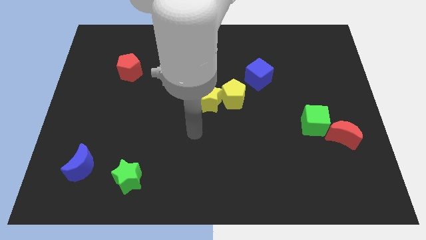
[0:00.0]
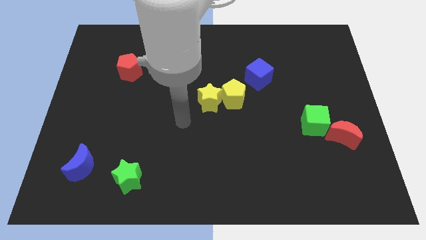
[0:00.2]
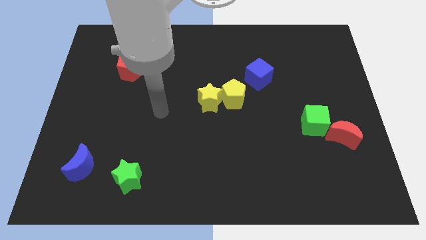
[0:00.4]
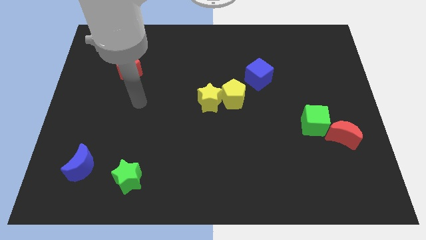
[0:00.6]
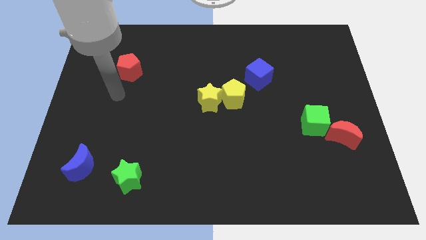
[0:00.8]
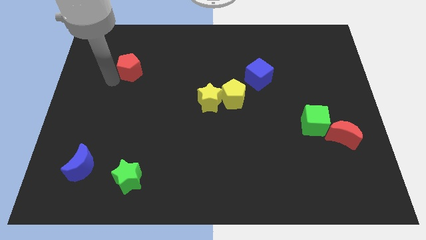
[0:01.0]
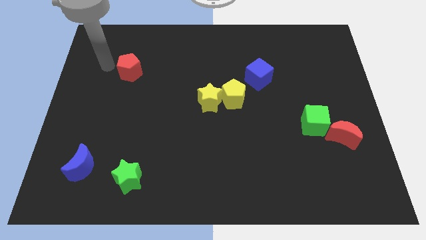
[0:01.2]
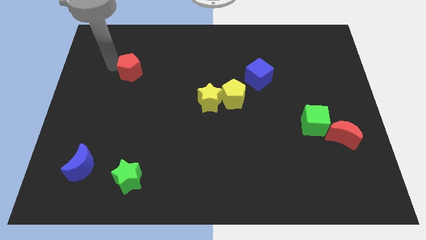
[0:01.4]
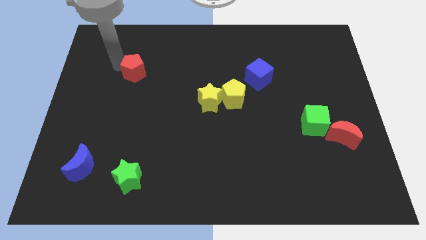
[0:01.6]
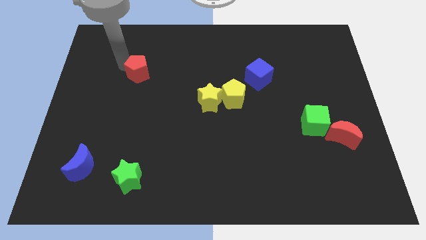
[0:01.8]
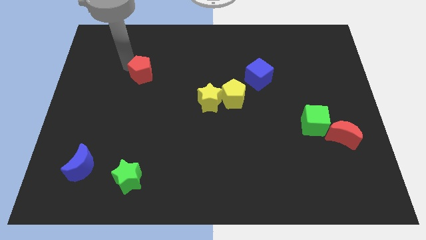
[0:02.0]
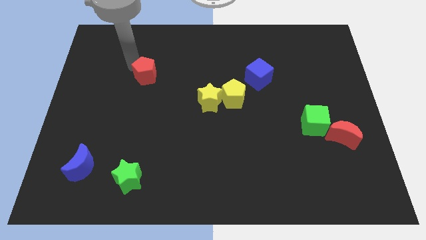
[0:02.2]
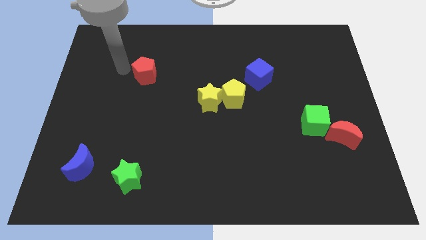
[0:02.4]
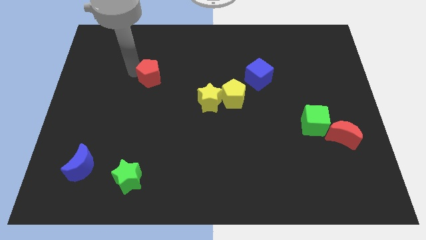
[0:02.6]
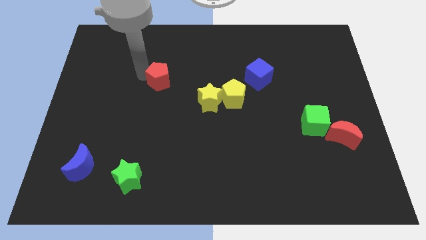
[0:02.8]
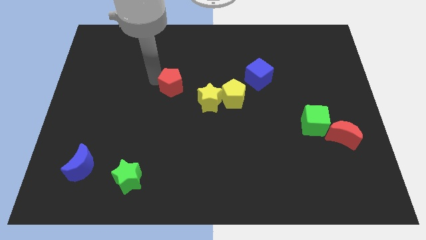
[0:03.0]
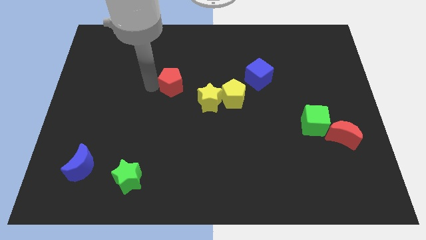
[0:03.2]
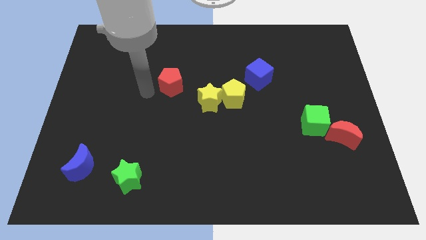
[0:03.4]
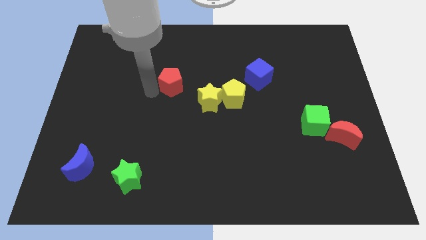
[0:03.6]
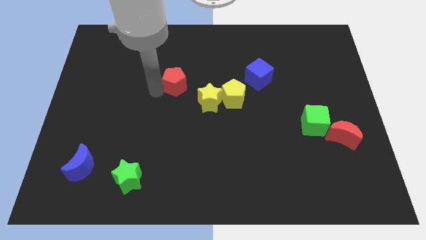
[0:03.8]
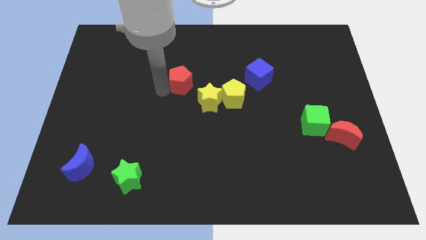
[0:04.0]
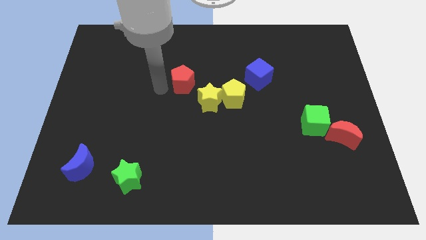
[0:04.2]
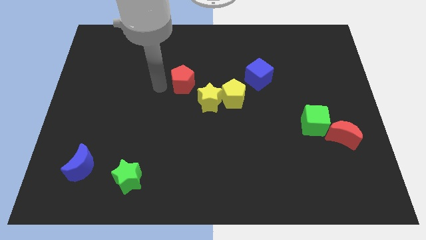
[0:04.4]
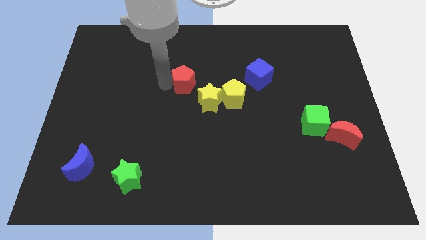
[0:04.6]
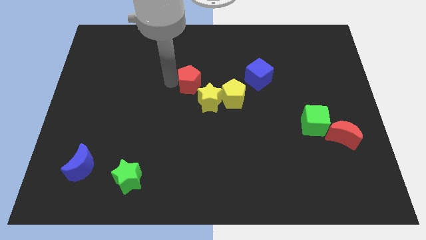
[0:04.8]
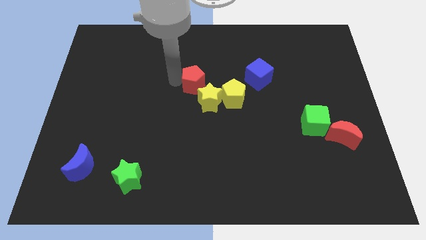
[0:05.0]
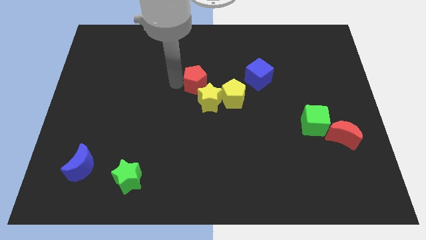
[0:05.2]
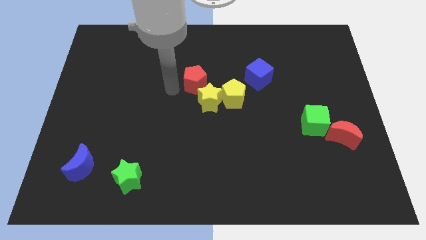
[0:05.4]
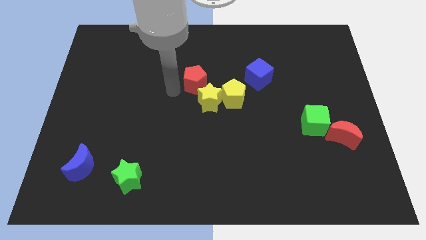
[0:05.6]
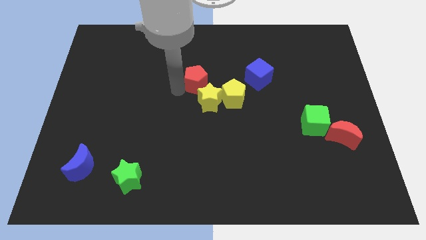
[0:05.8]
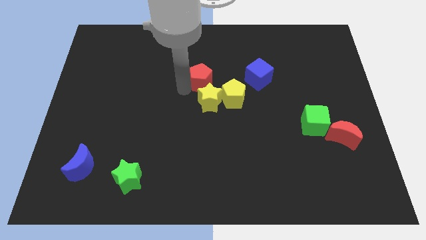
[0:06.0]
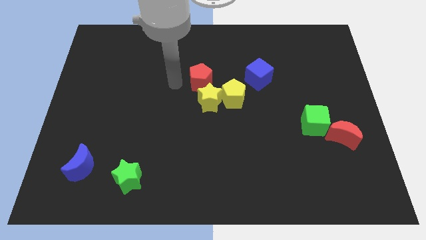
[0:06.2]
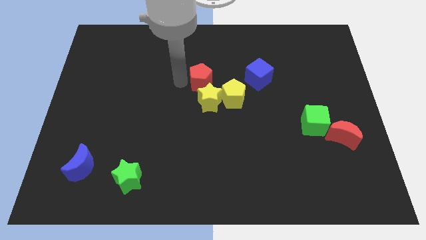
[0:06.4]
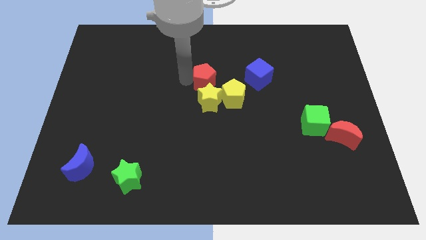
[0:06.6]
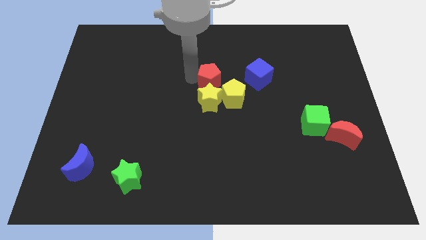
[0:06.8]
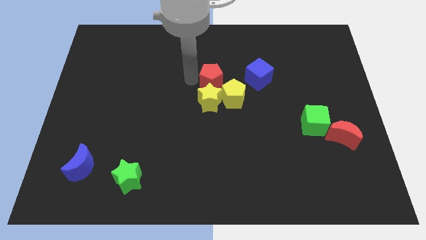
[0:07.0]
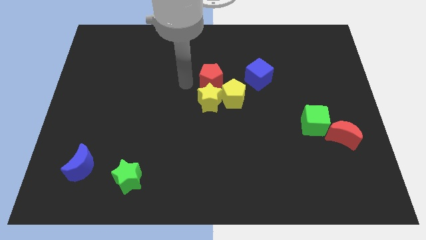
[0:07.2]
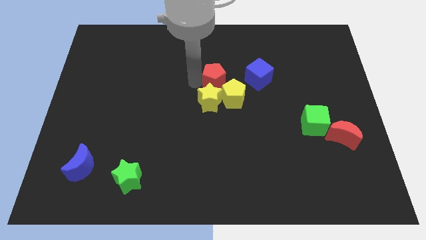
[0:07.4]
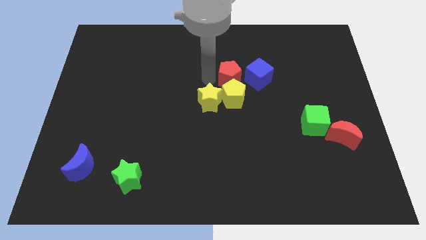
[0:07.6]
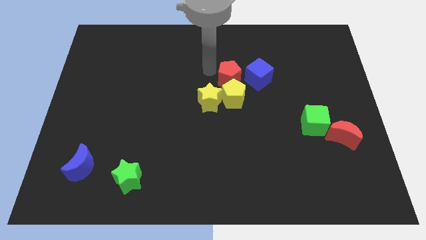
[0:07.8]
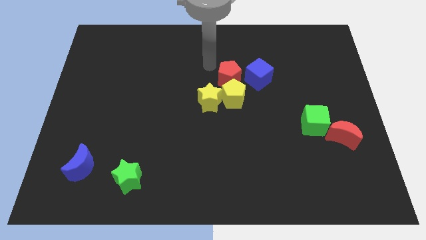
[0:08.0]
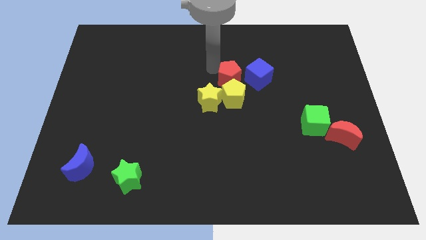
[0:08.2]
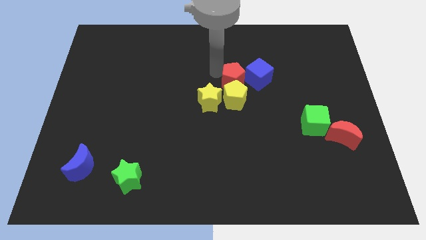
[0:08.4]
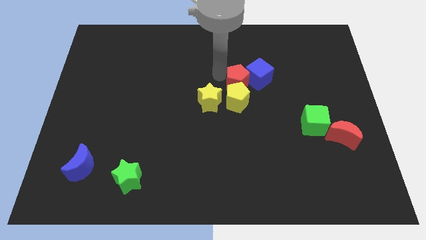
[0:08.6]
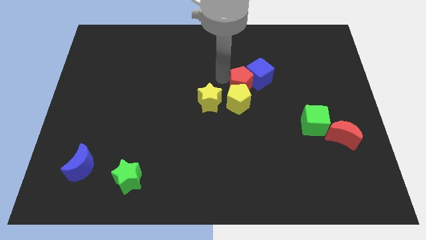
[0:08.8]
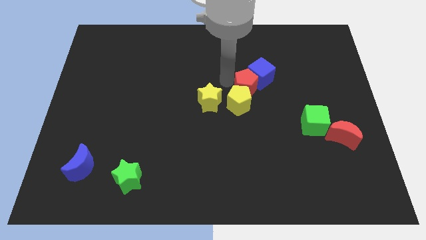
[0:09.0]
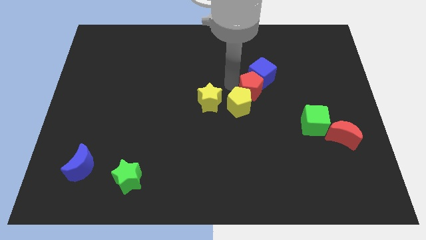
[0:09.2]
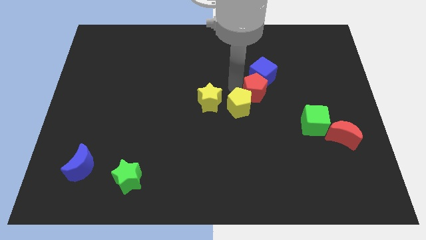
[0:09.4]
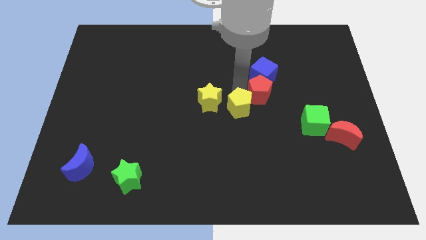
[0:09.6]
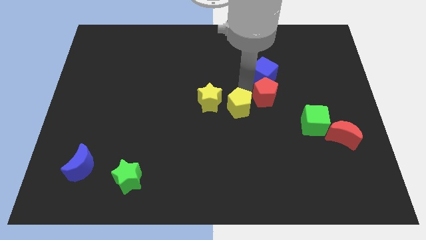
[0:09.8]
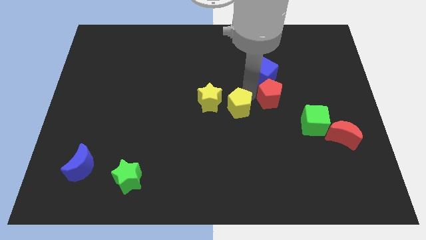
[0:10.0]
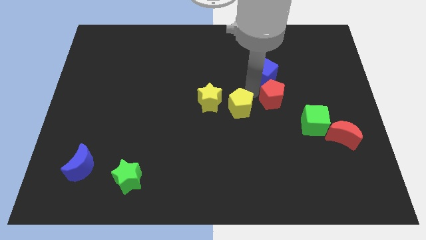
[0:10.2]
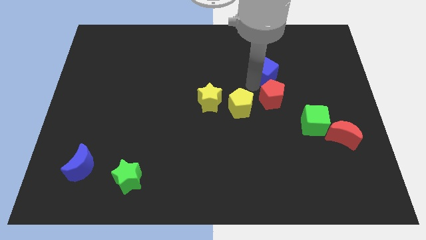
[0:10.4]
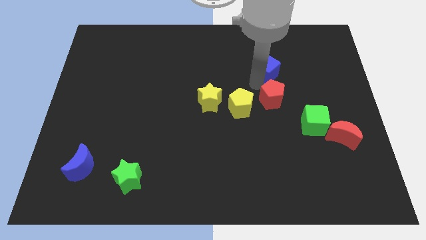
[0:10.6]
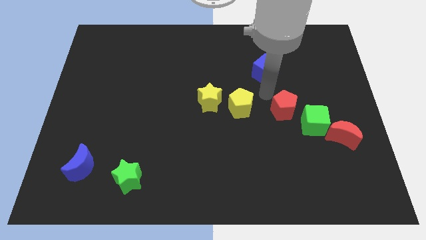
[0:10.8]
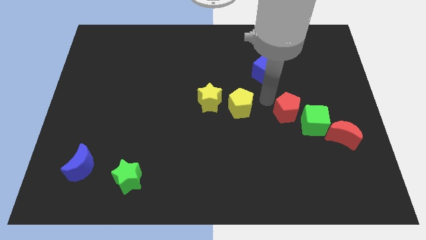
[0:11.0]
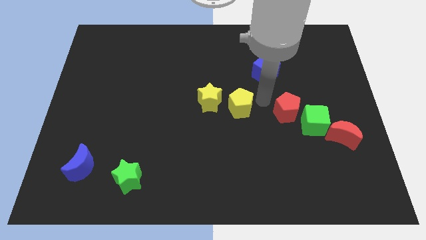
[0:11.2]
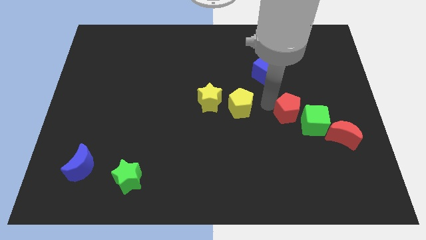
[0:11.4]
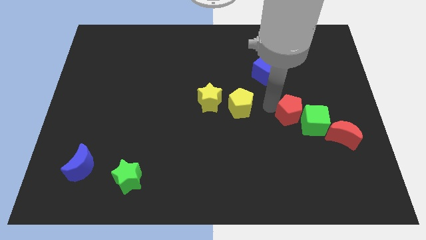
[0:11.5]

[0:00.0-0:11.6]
slide the red pentagon next to the green cube

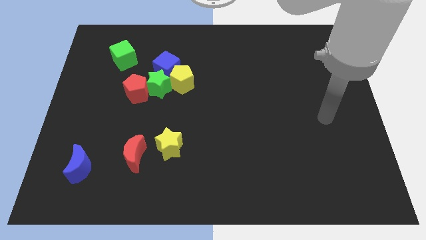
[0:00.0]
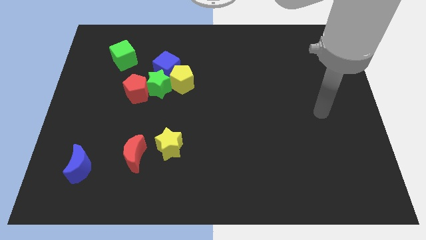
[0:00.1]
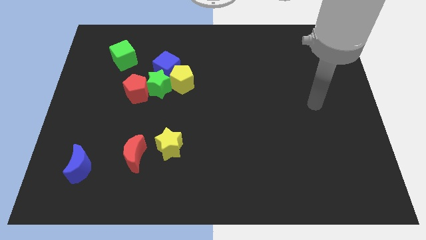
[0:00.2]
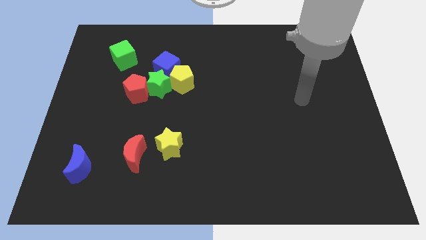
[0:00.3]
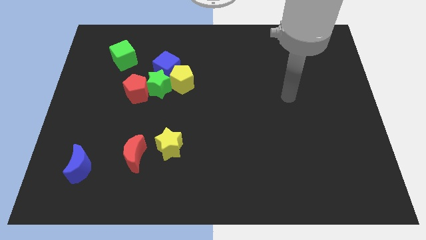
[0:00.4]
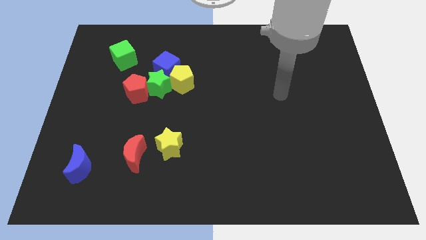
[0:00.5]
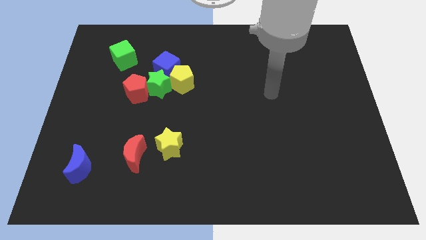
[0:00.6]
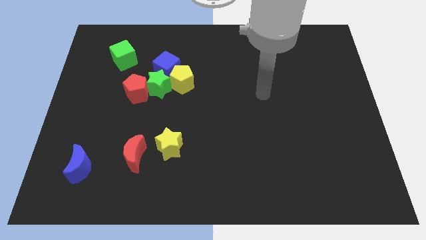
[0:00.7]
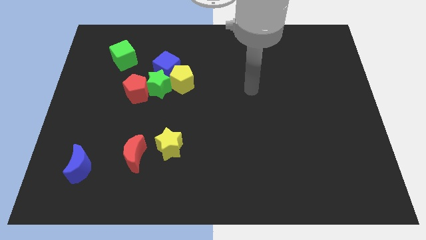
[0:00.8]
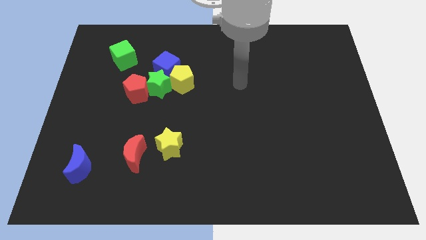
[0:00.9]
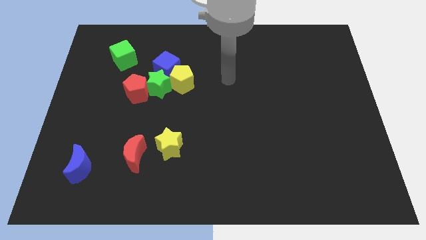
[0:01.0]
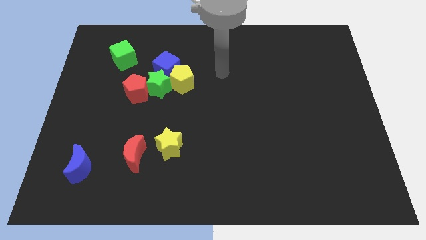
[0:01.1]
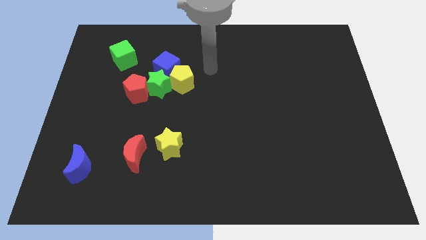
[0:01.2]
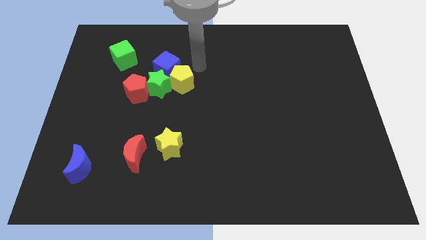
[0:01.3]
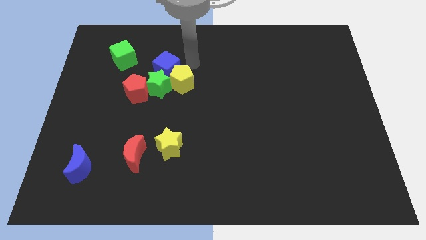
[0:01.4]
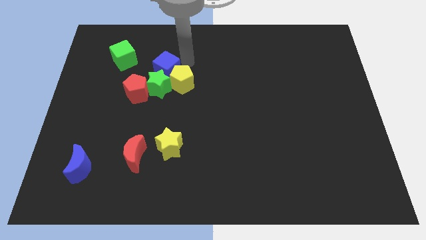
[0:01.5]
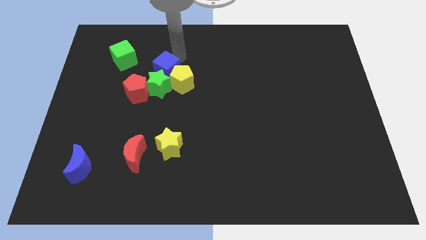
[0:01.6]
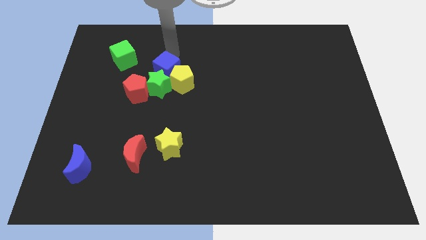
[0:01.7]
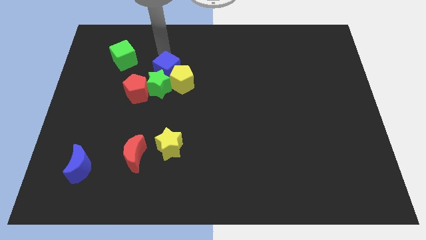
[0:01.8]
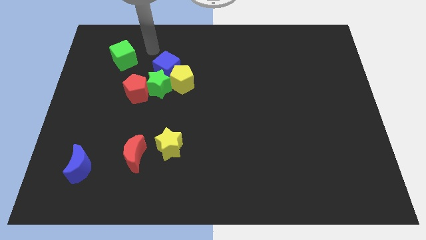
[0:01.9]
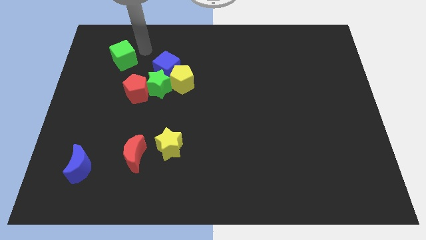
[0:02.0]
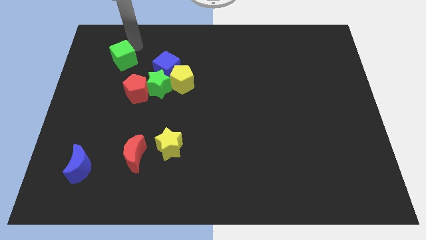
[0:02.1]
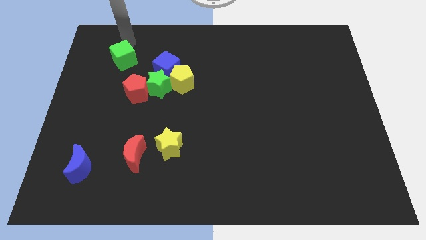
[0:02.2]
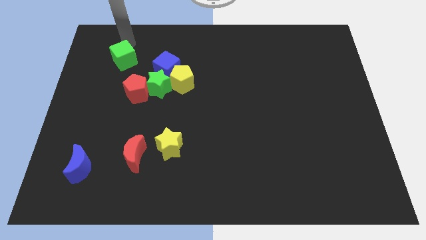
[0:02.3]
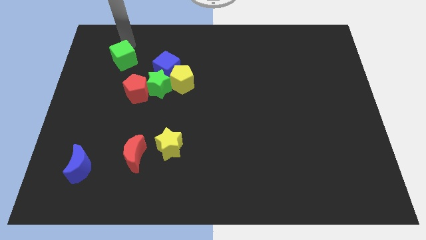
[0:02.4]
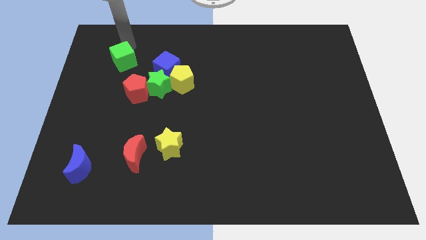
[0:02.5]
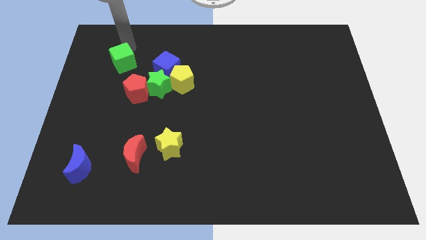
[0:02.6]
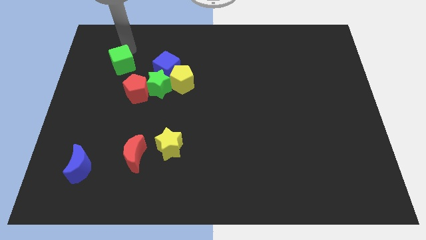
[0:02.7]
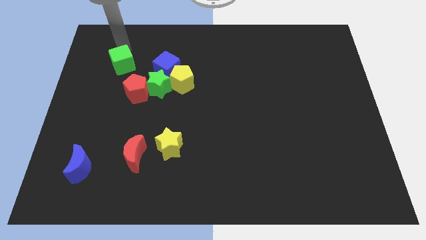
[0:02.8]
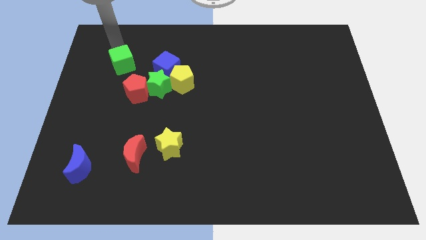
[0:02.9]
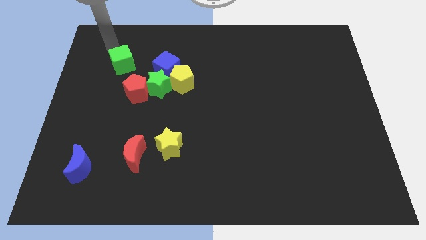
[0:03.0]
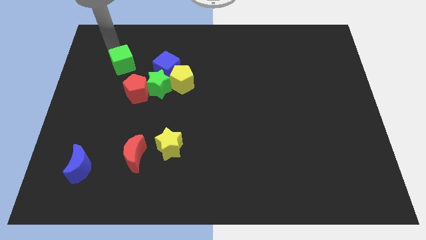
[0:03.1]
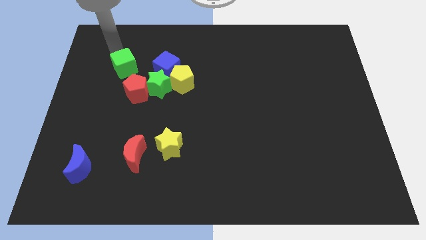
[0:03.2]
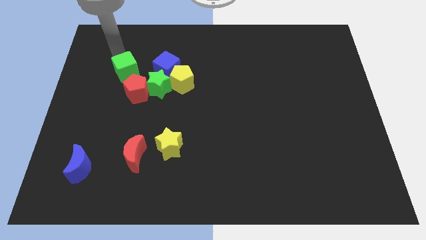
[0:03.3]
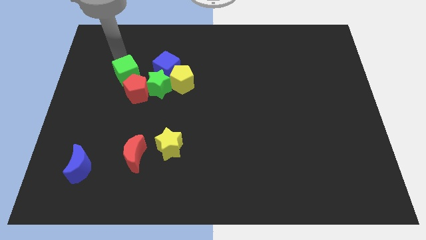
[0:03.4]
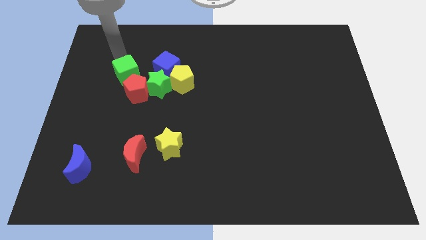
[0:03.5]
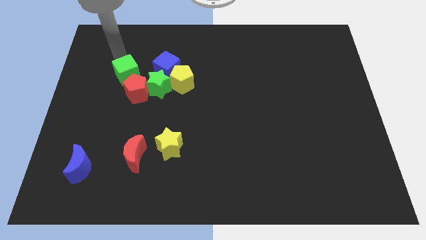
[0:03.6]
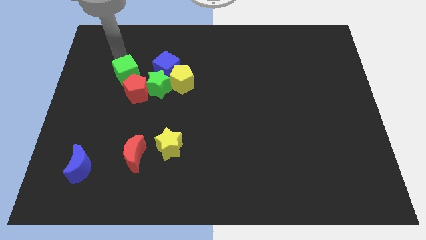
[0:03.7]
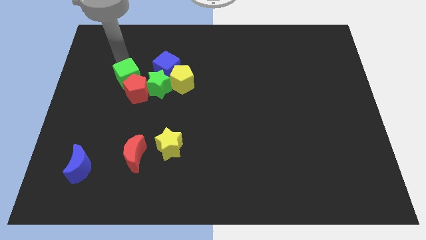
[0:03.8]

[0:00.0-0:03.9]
push the green cube towards the red pentagon
